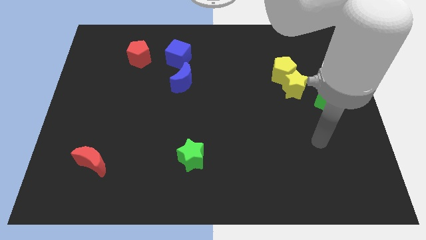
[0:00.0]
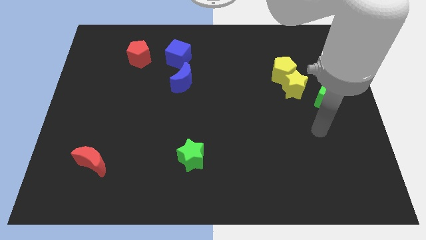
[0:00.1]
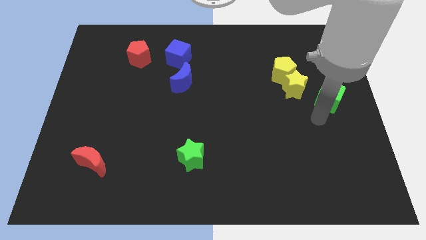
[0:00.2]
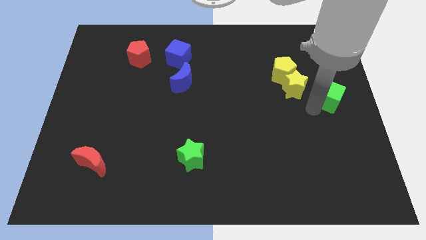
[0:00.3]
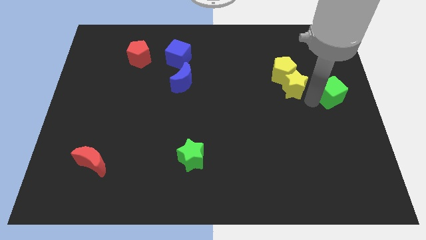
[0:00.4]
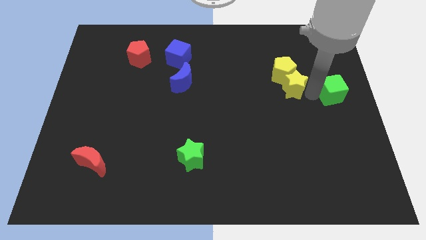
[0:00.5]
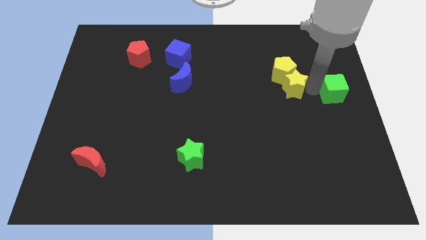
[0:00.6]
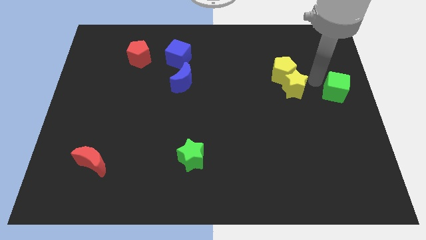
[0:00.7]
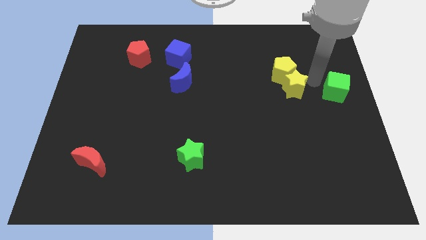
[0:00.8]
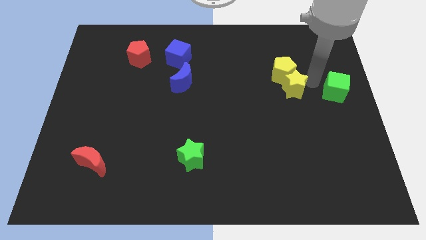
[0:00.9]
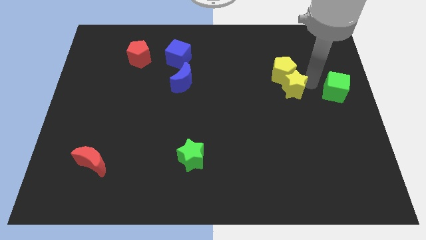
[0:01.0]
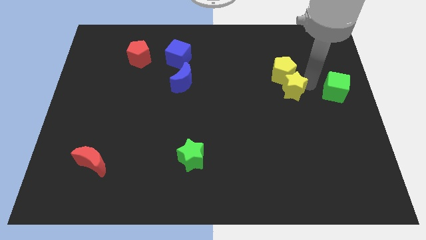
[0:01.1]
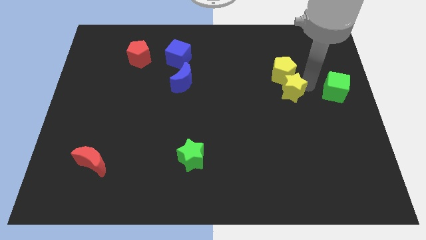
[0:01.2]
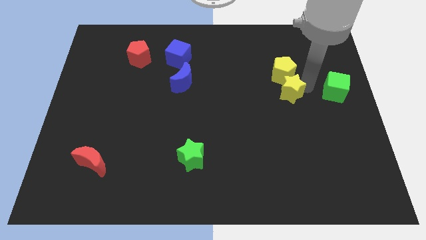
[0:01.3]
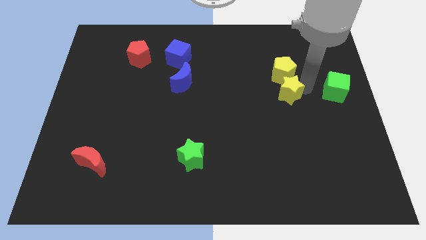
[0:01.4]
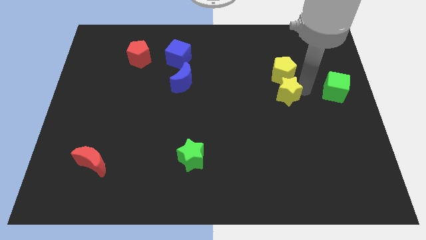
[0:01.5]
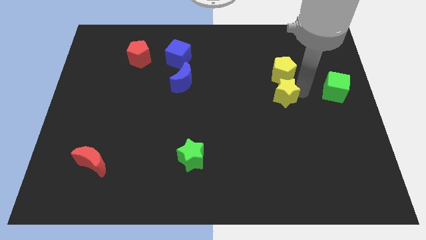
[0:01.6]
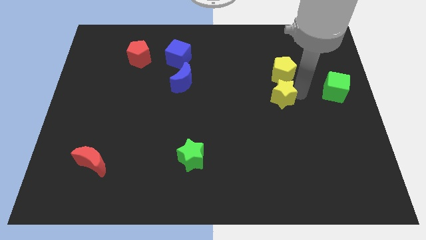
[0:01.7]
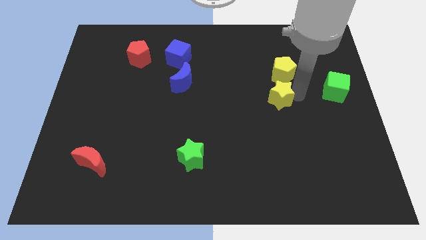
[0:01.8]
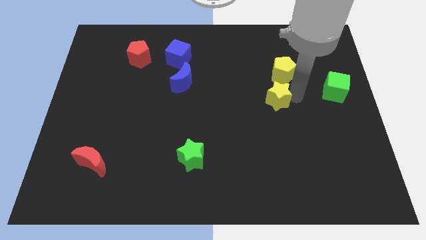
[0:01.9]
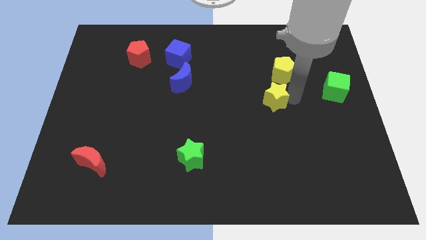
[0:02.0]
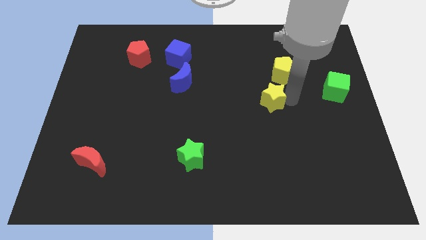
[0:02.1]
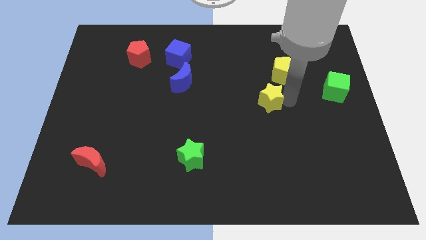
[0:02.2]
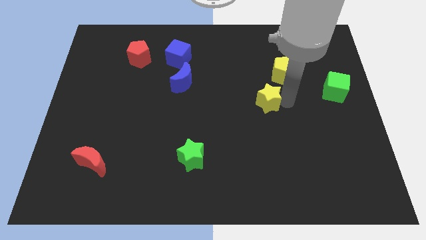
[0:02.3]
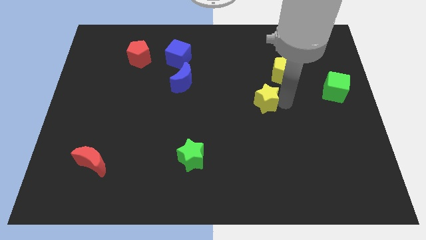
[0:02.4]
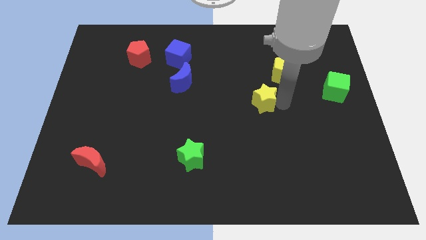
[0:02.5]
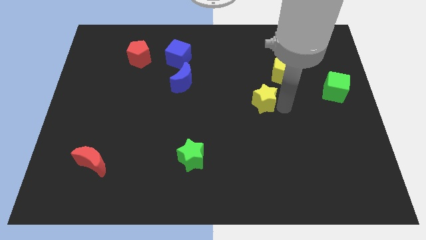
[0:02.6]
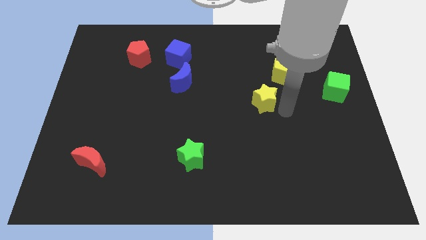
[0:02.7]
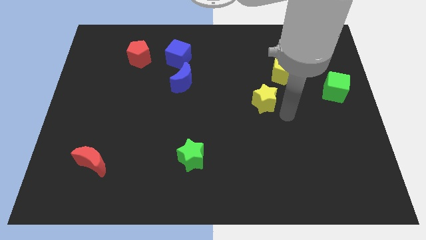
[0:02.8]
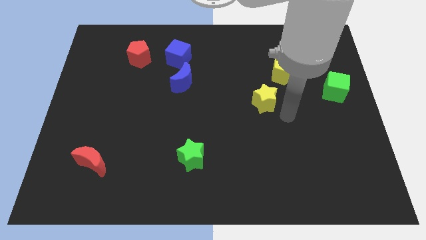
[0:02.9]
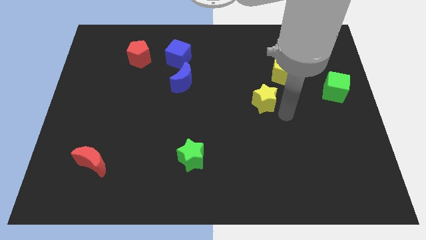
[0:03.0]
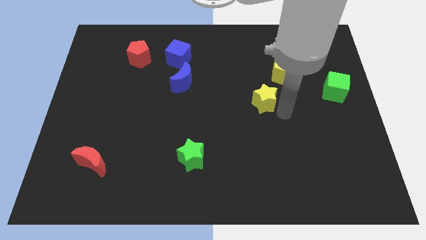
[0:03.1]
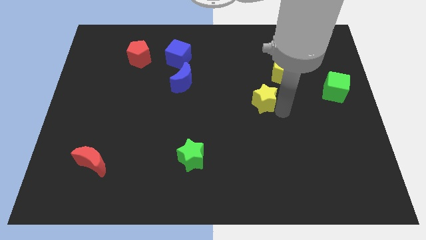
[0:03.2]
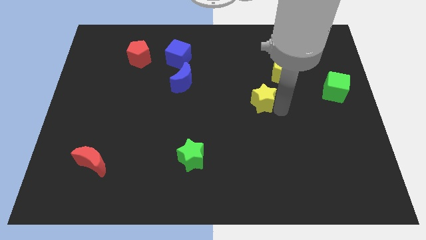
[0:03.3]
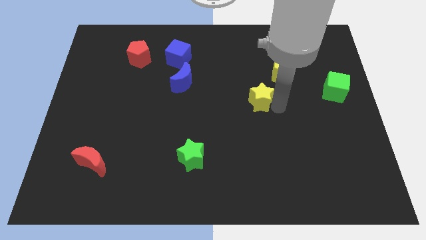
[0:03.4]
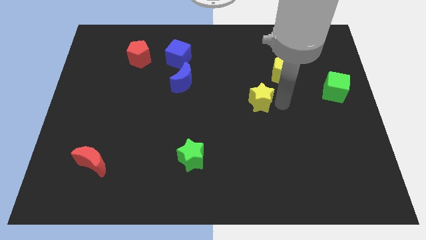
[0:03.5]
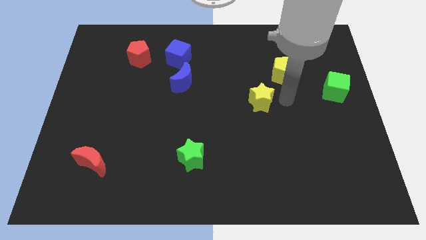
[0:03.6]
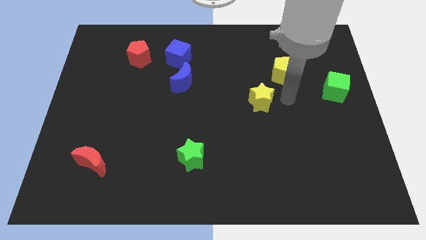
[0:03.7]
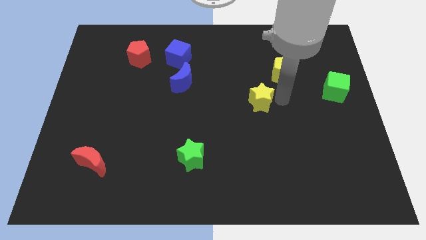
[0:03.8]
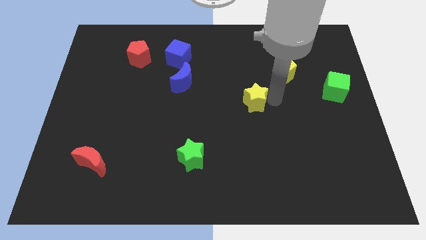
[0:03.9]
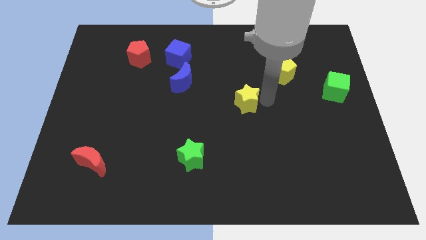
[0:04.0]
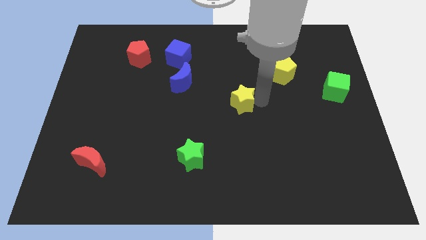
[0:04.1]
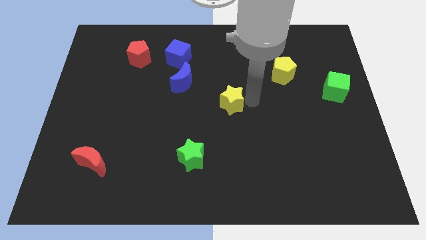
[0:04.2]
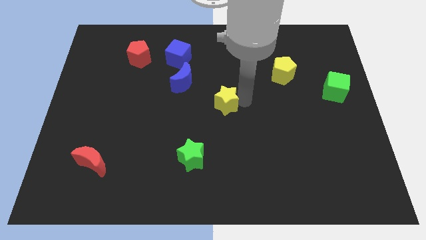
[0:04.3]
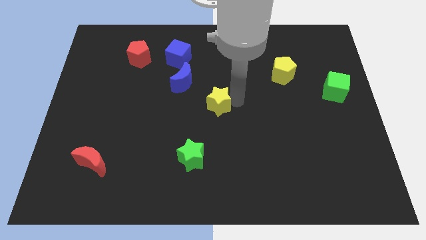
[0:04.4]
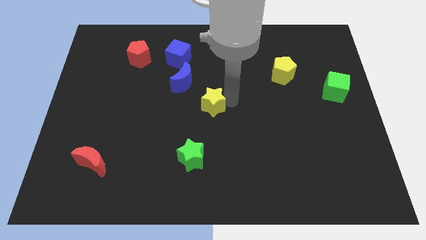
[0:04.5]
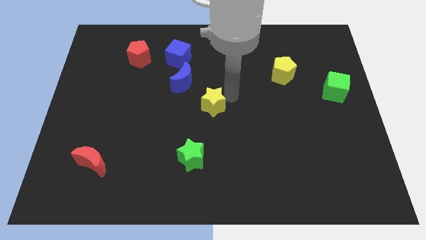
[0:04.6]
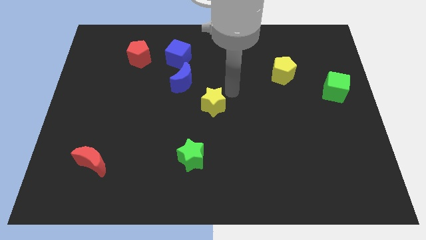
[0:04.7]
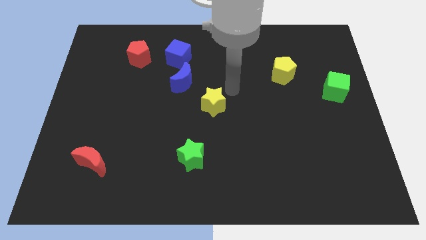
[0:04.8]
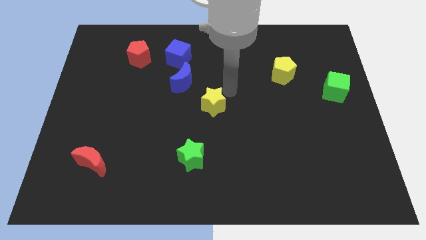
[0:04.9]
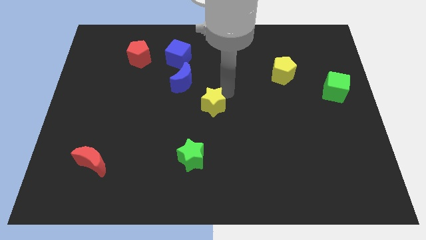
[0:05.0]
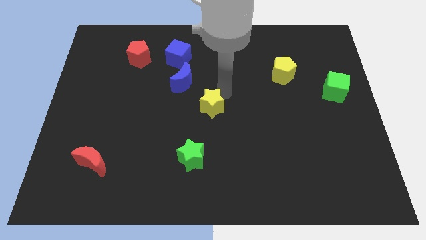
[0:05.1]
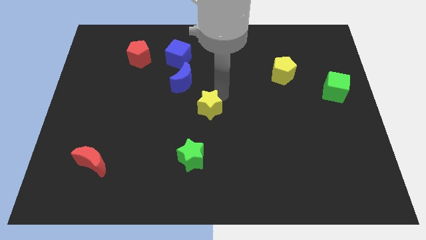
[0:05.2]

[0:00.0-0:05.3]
push the yellow star above the green star

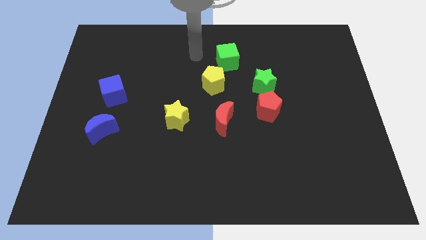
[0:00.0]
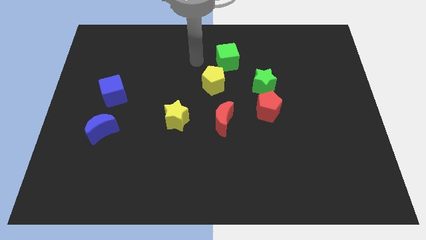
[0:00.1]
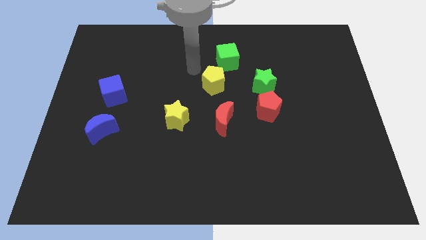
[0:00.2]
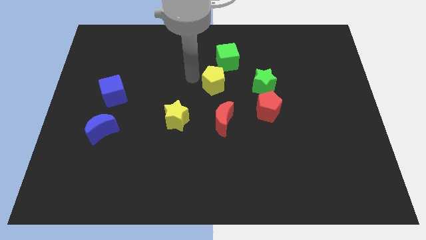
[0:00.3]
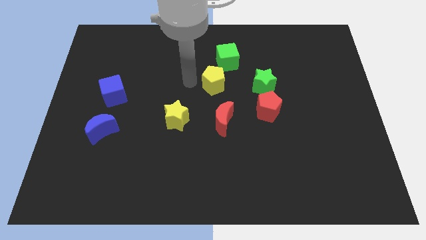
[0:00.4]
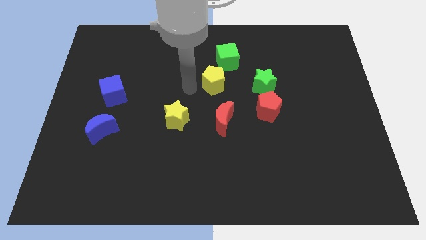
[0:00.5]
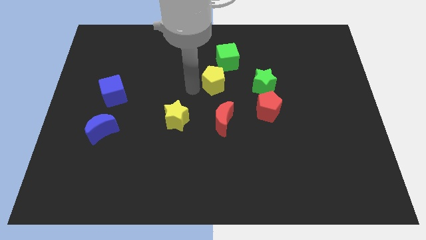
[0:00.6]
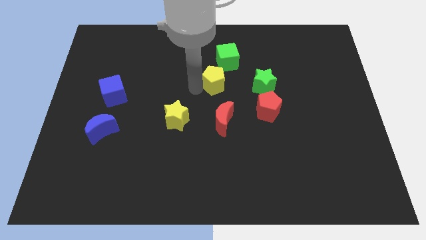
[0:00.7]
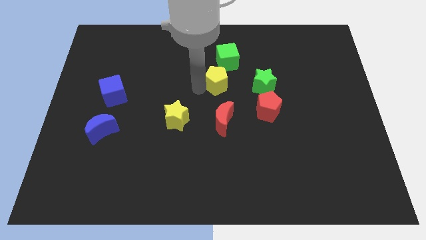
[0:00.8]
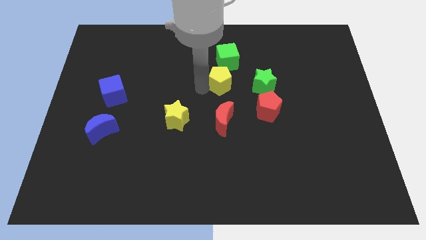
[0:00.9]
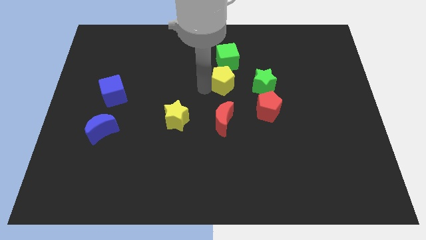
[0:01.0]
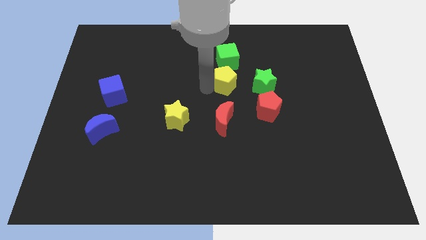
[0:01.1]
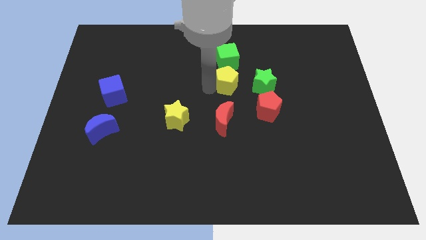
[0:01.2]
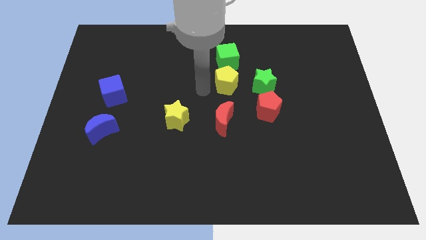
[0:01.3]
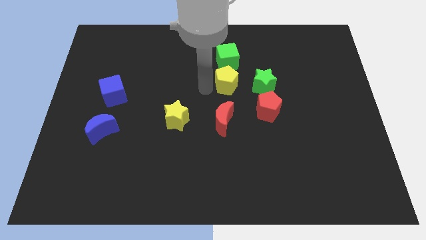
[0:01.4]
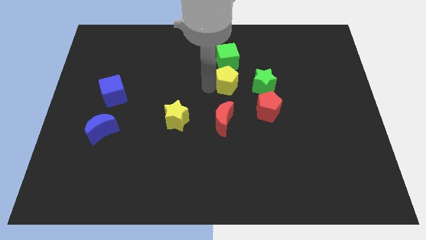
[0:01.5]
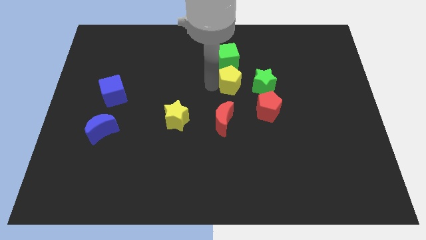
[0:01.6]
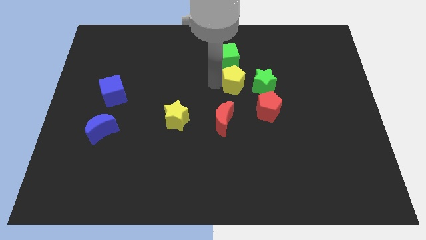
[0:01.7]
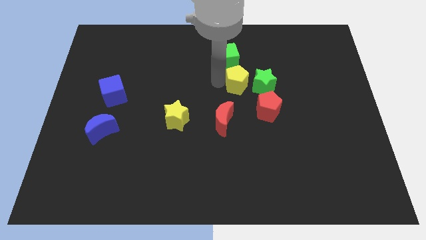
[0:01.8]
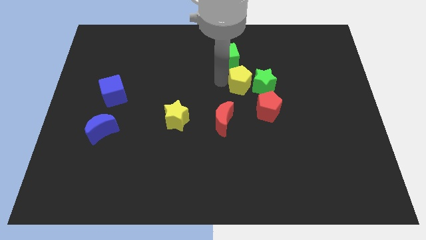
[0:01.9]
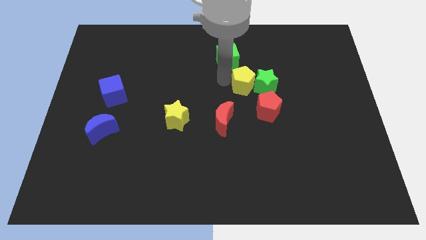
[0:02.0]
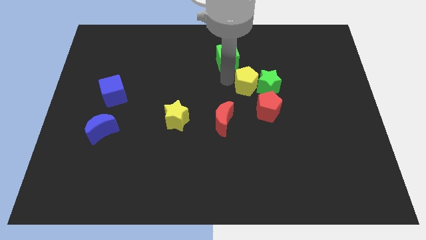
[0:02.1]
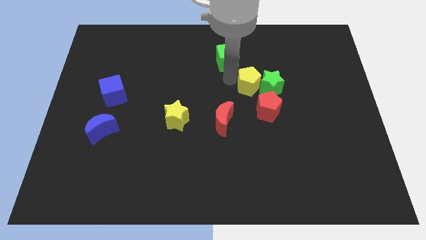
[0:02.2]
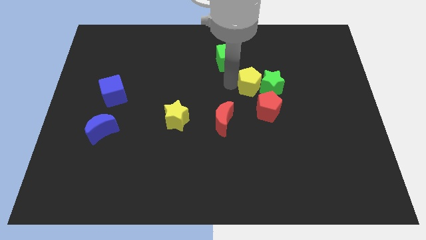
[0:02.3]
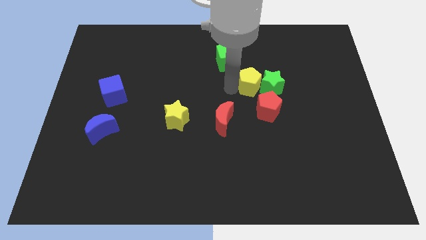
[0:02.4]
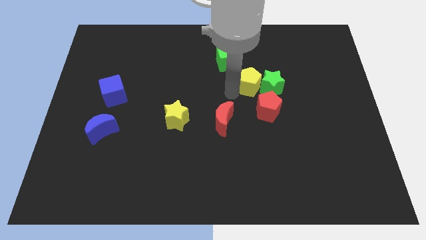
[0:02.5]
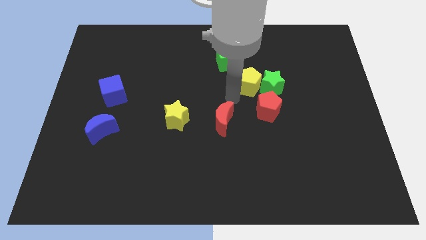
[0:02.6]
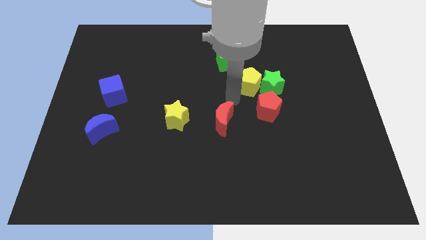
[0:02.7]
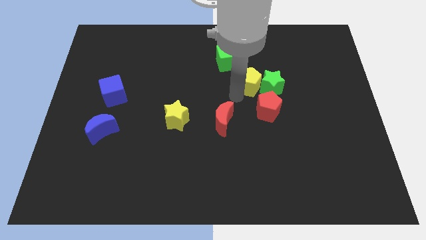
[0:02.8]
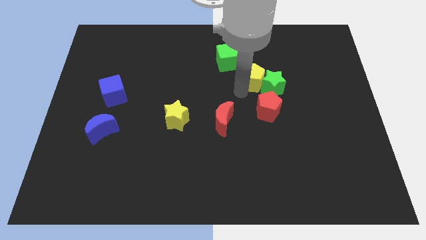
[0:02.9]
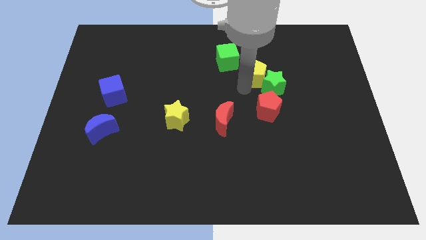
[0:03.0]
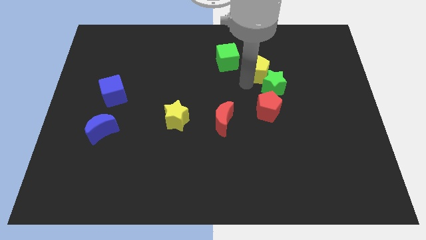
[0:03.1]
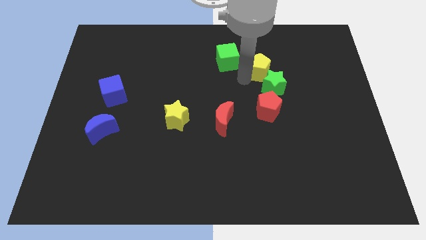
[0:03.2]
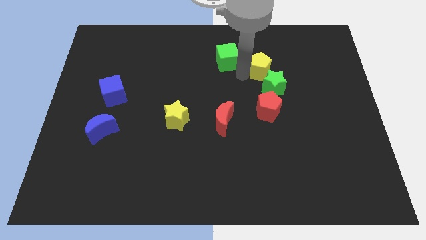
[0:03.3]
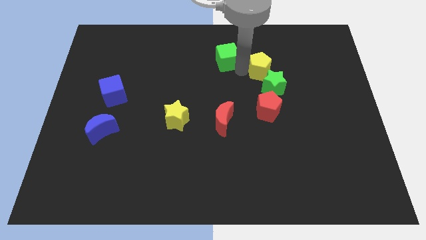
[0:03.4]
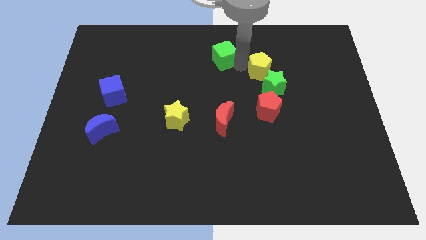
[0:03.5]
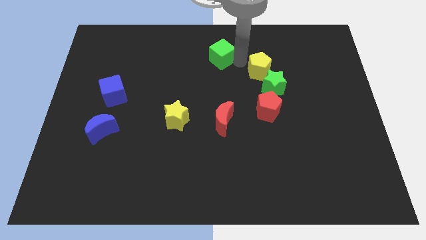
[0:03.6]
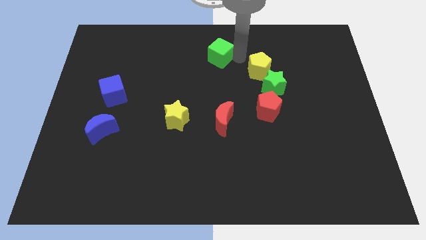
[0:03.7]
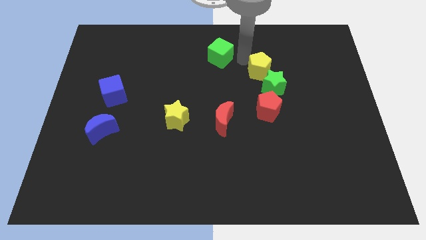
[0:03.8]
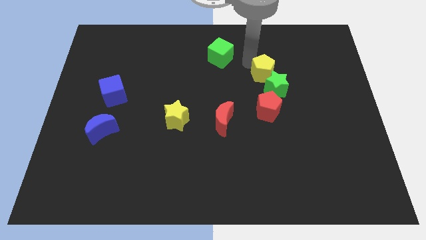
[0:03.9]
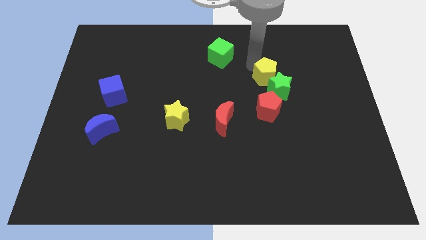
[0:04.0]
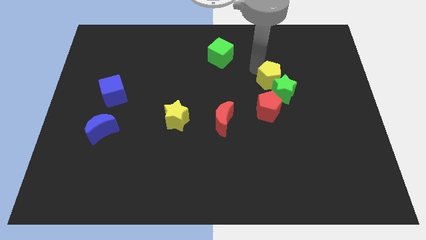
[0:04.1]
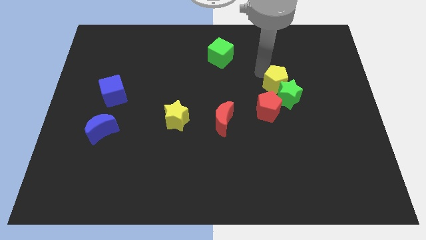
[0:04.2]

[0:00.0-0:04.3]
move the yellow pentagon to the top right of the red pentagon
